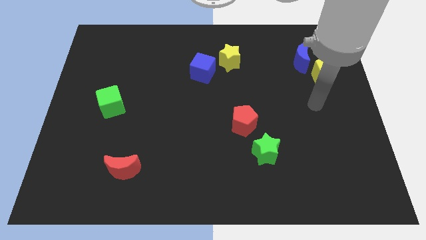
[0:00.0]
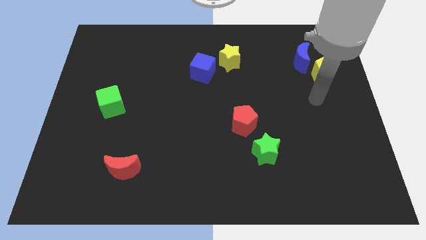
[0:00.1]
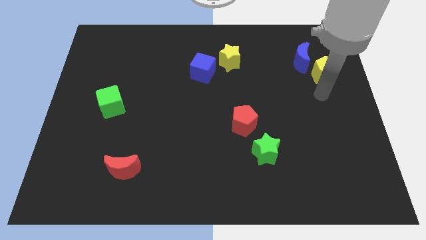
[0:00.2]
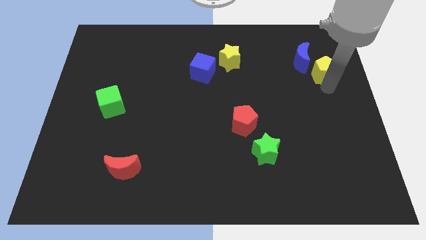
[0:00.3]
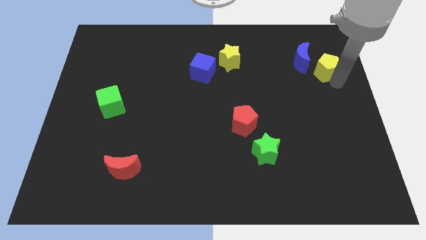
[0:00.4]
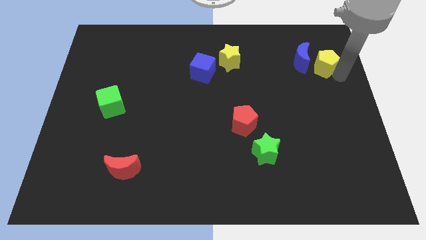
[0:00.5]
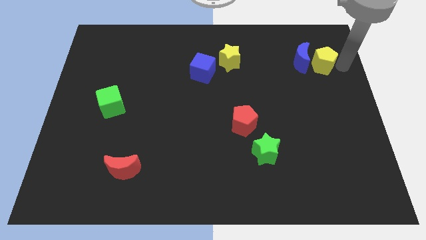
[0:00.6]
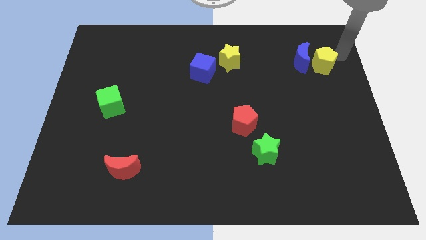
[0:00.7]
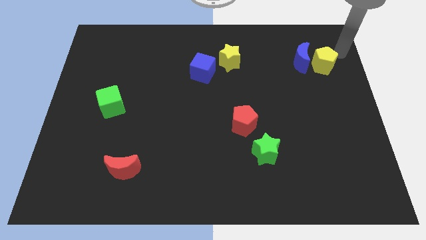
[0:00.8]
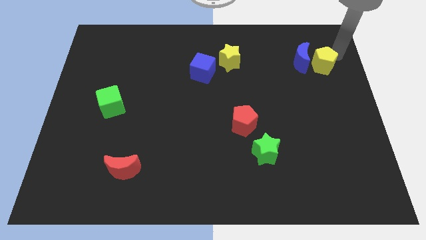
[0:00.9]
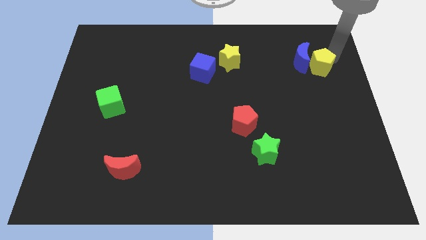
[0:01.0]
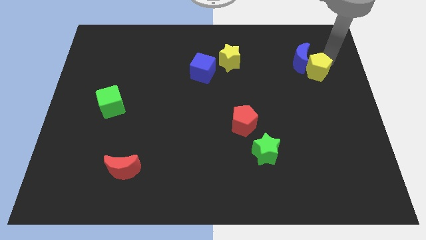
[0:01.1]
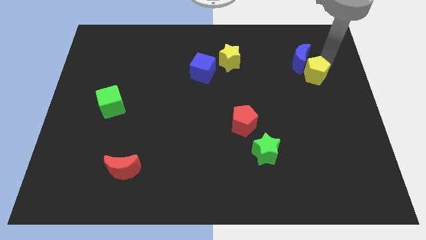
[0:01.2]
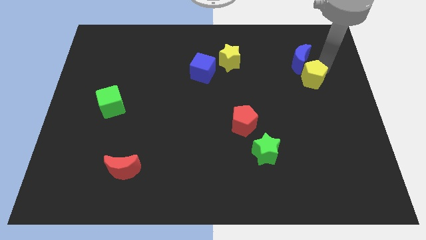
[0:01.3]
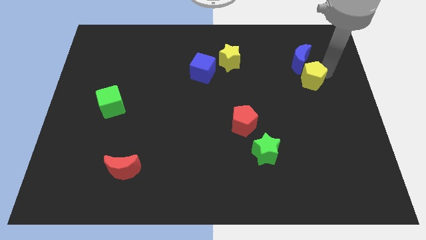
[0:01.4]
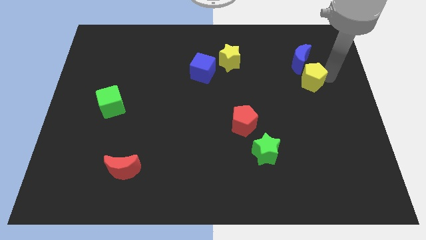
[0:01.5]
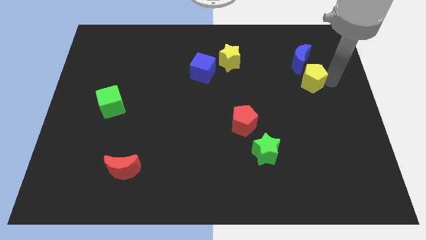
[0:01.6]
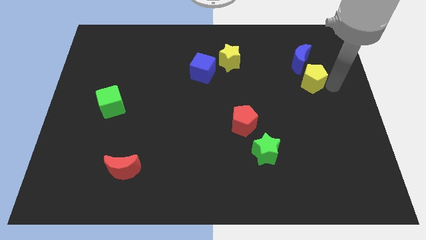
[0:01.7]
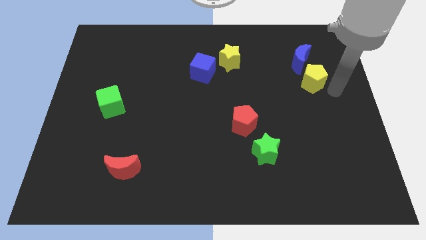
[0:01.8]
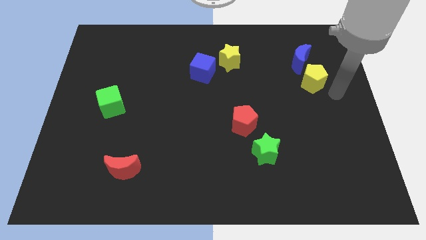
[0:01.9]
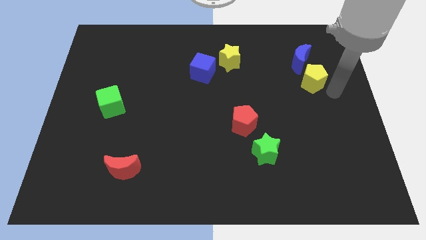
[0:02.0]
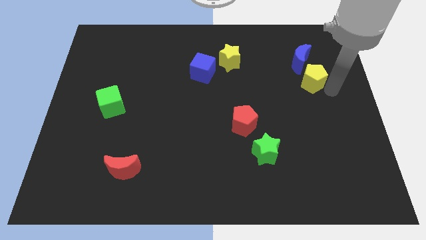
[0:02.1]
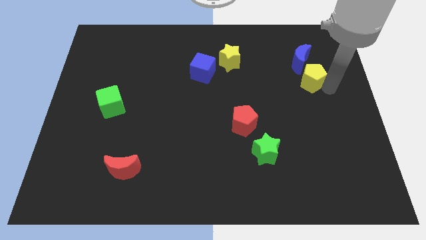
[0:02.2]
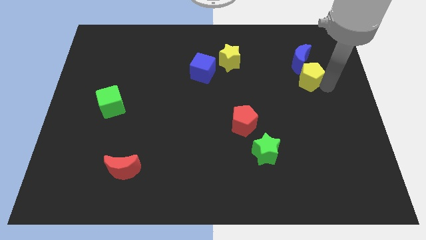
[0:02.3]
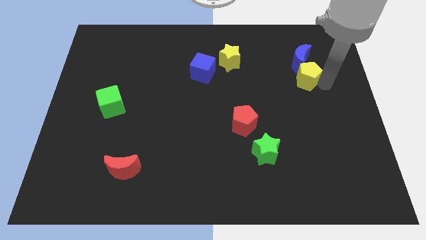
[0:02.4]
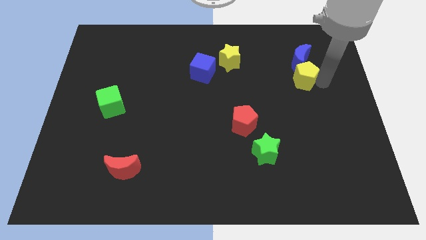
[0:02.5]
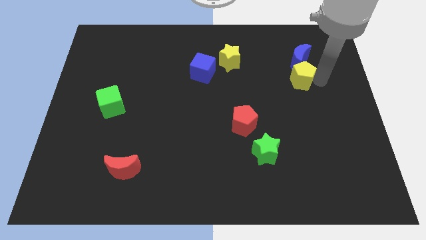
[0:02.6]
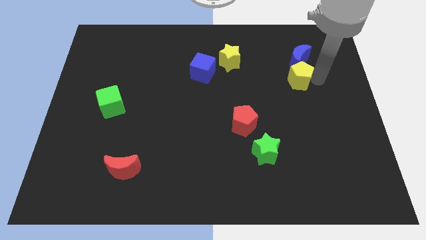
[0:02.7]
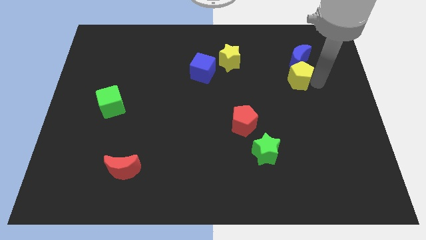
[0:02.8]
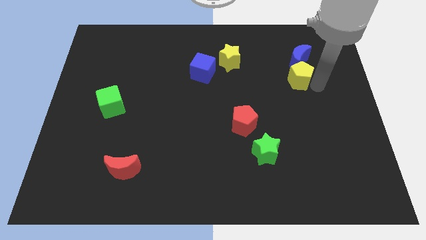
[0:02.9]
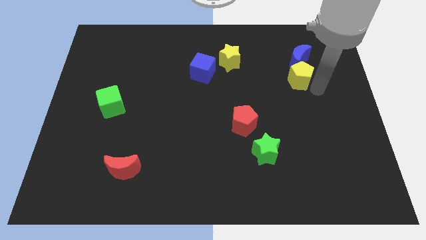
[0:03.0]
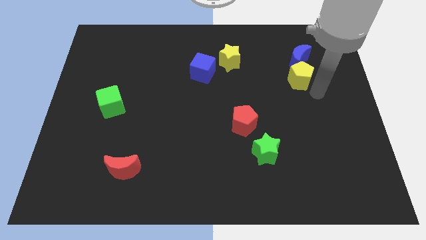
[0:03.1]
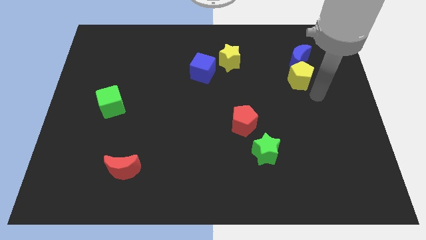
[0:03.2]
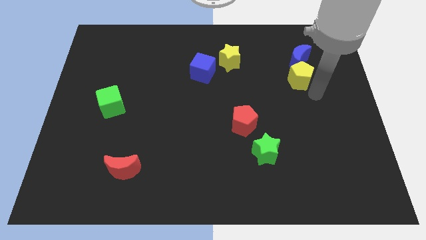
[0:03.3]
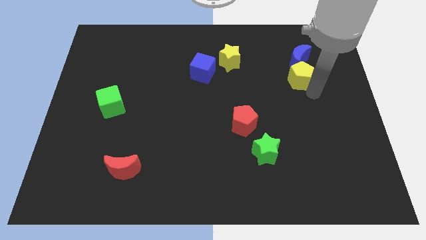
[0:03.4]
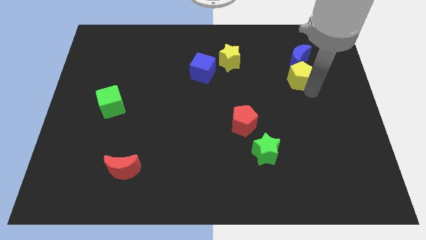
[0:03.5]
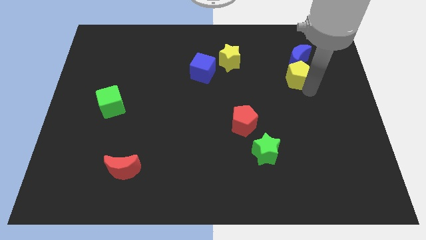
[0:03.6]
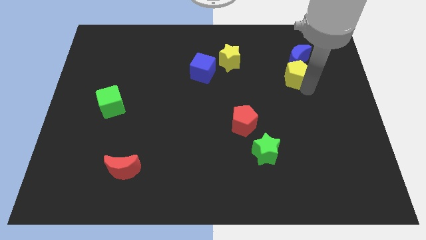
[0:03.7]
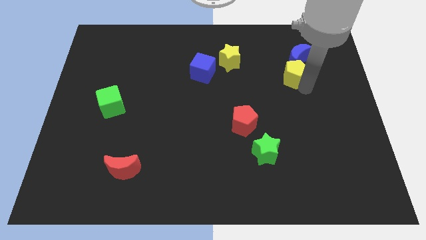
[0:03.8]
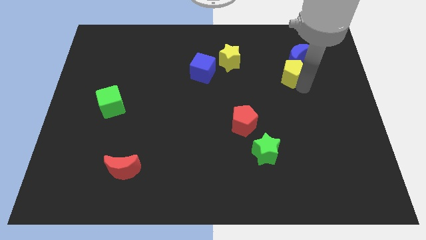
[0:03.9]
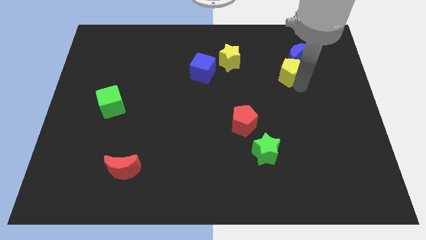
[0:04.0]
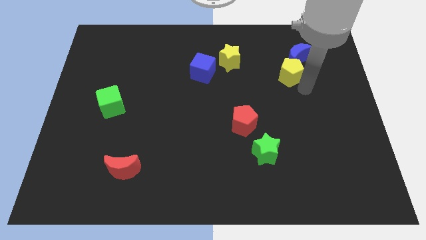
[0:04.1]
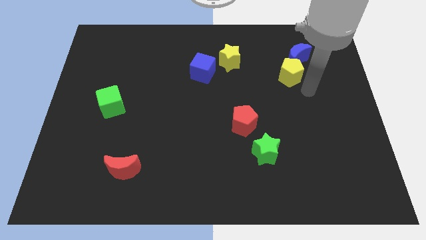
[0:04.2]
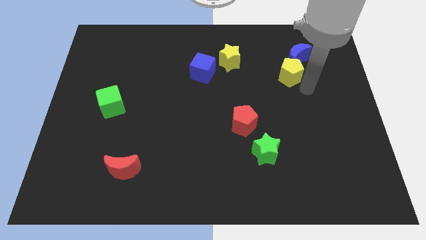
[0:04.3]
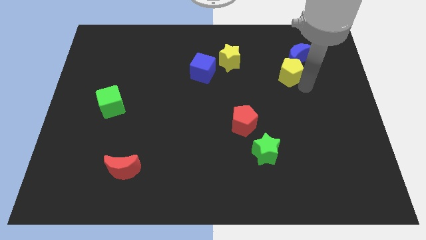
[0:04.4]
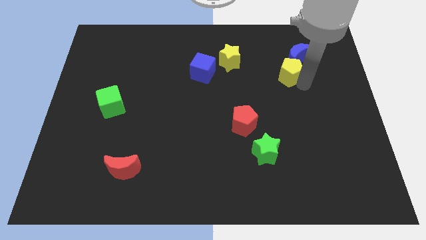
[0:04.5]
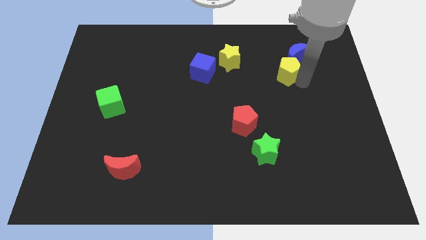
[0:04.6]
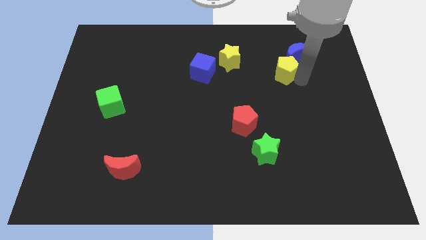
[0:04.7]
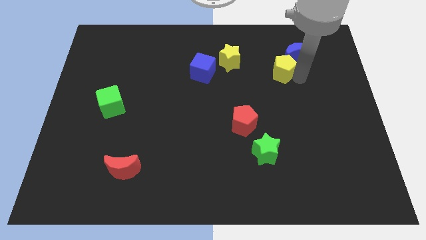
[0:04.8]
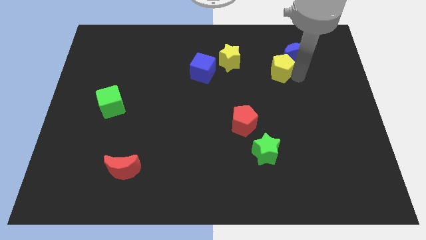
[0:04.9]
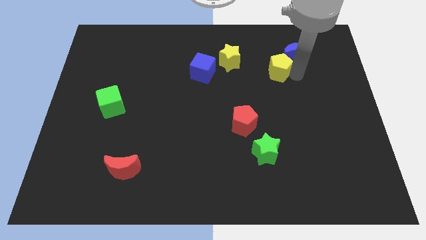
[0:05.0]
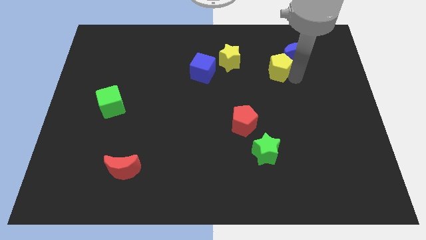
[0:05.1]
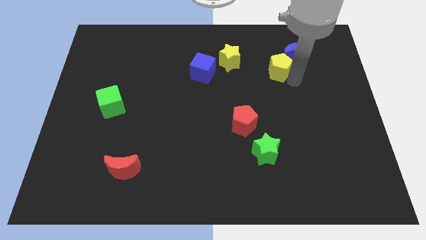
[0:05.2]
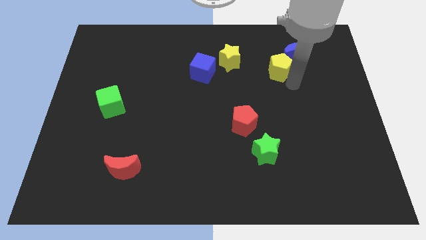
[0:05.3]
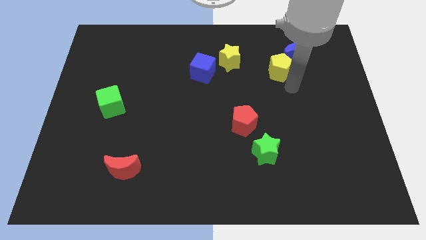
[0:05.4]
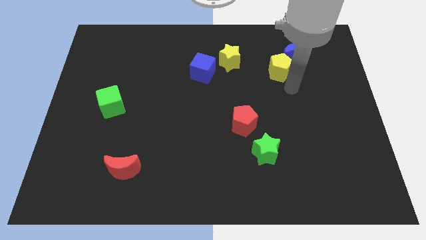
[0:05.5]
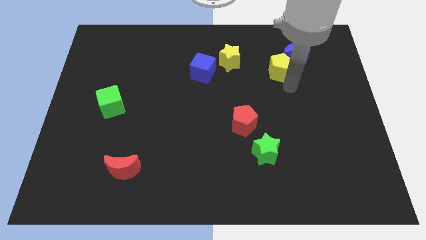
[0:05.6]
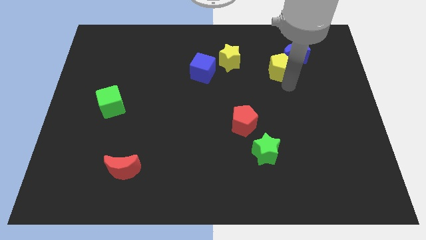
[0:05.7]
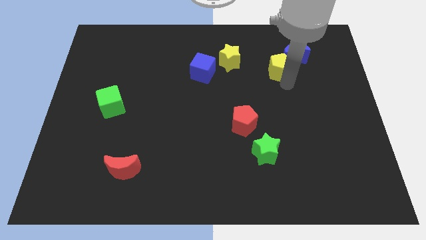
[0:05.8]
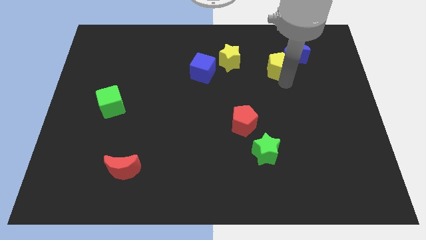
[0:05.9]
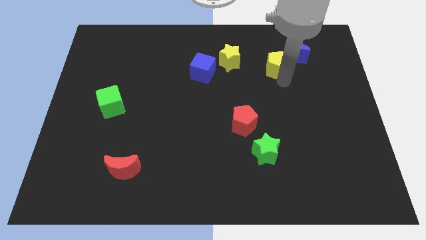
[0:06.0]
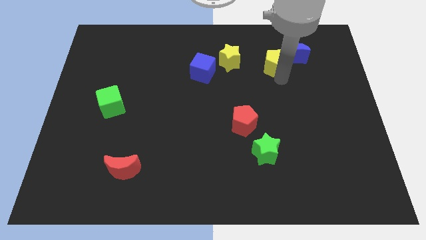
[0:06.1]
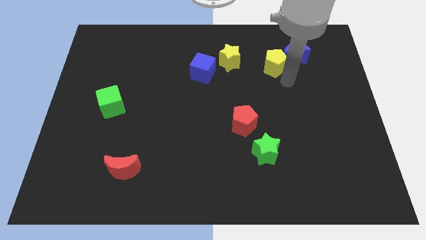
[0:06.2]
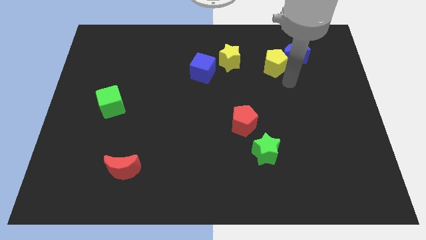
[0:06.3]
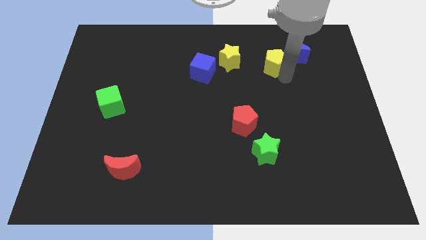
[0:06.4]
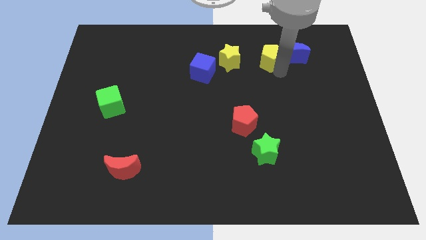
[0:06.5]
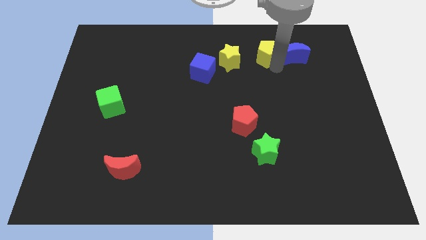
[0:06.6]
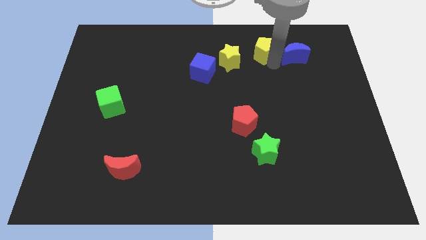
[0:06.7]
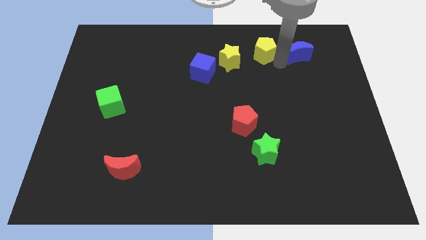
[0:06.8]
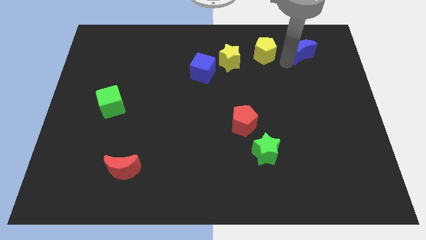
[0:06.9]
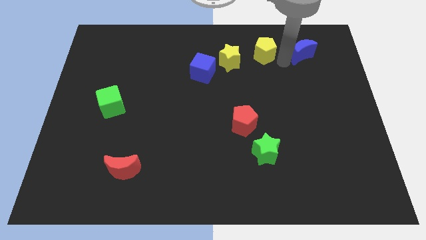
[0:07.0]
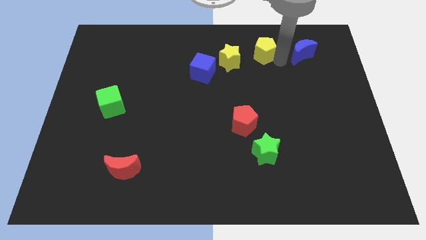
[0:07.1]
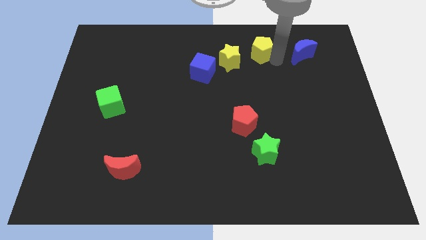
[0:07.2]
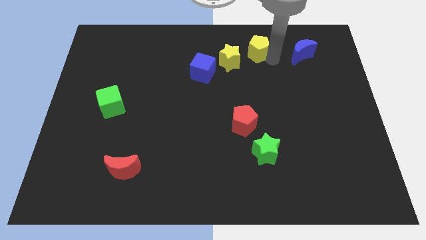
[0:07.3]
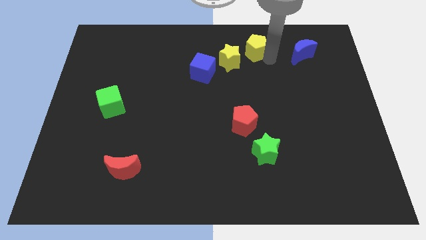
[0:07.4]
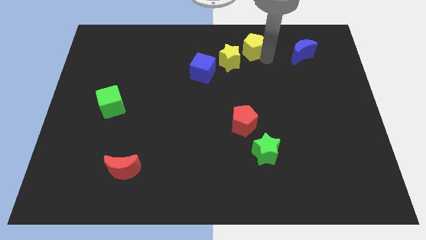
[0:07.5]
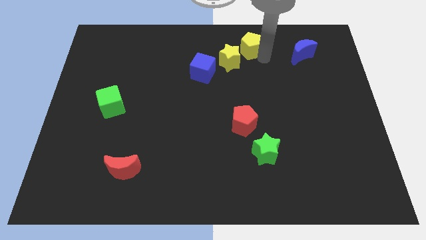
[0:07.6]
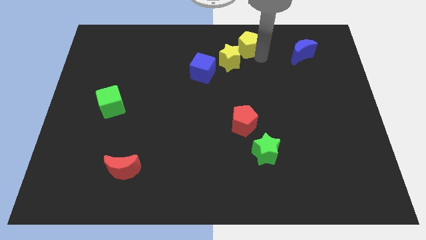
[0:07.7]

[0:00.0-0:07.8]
push the yellow pentagon to the towards your base
